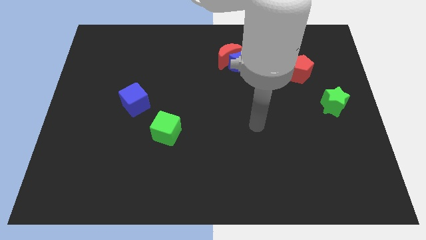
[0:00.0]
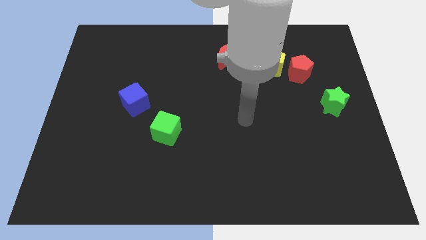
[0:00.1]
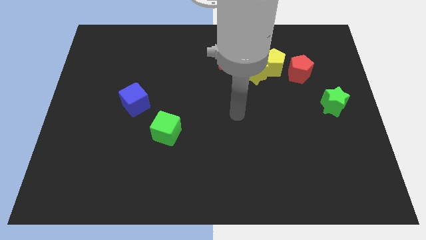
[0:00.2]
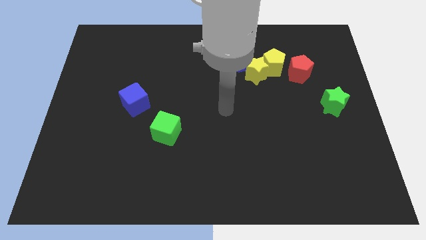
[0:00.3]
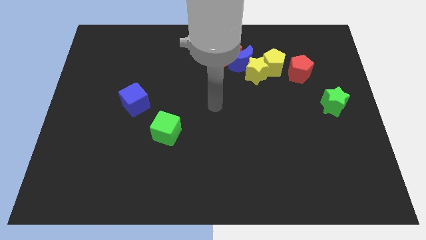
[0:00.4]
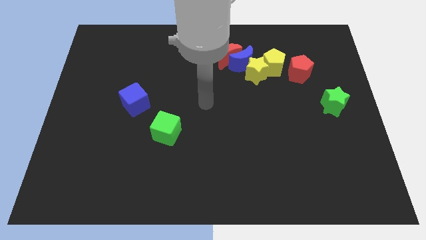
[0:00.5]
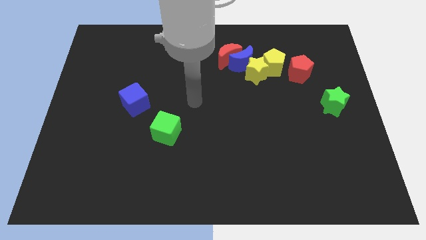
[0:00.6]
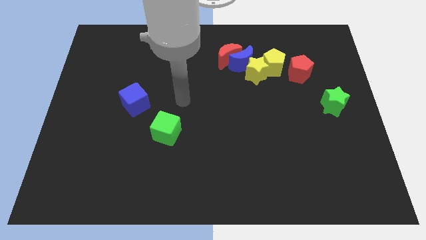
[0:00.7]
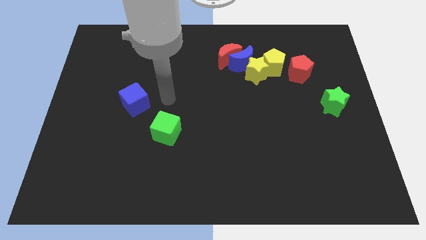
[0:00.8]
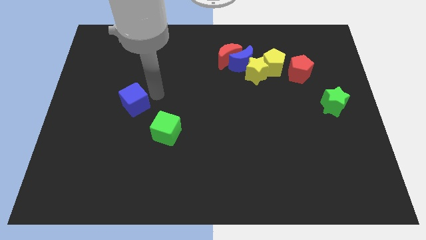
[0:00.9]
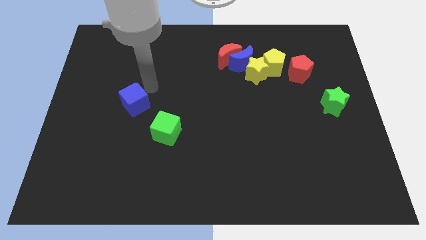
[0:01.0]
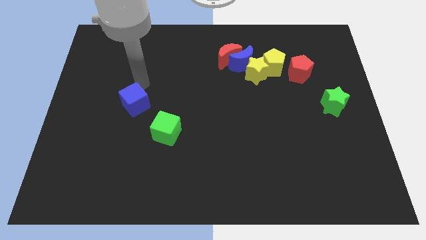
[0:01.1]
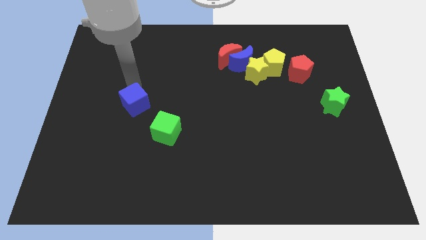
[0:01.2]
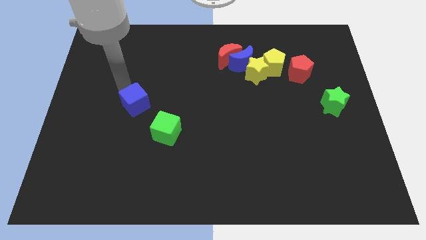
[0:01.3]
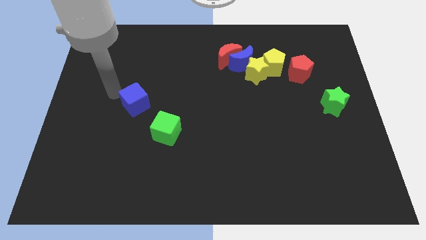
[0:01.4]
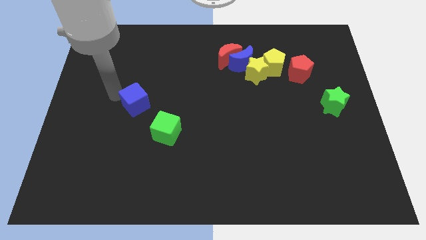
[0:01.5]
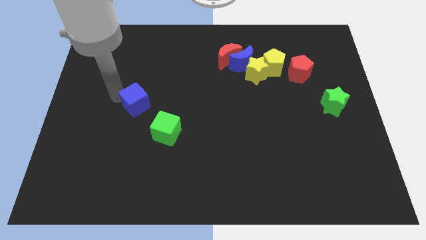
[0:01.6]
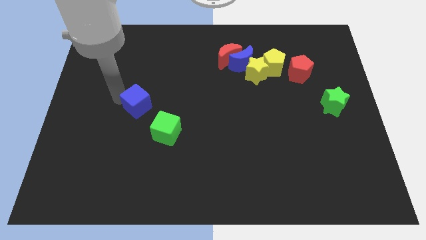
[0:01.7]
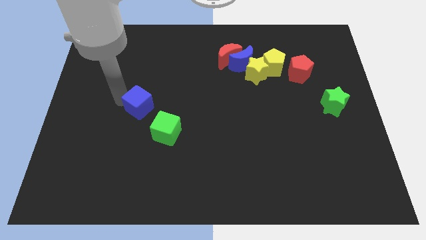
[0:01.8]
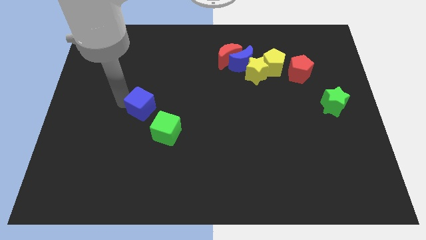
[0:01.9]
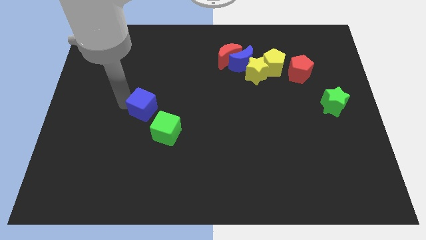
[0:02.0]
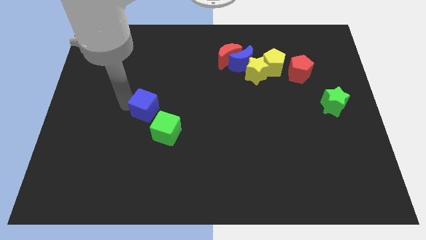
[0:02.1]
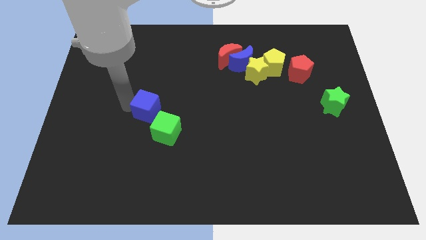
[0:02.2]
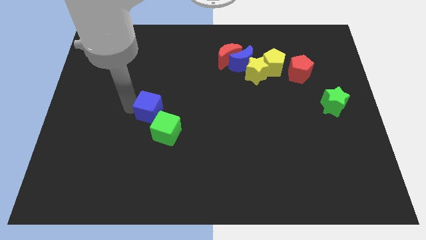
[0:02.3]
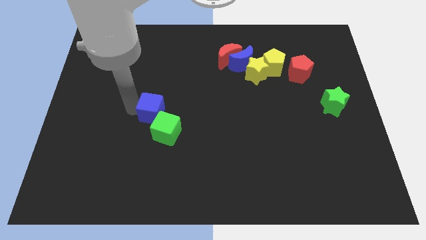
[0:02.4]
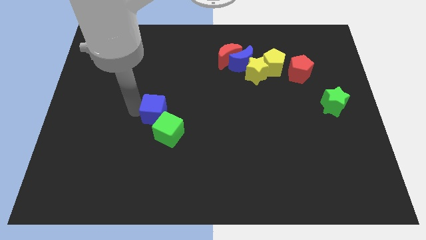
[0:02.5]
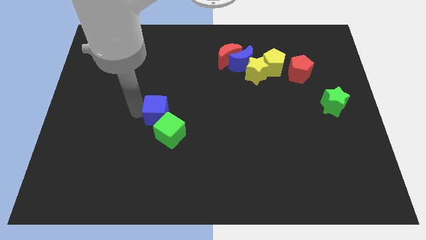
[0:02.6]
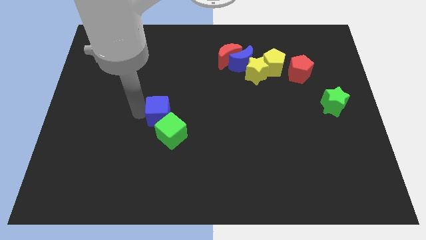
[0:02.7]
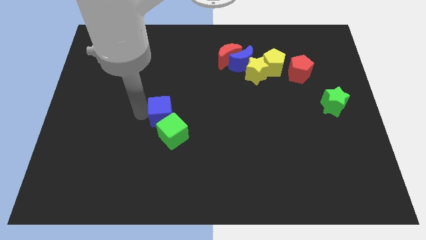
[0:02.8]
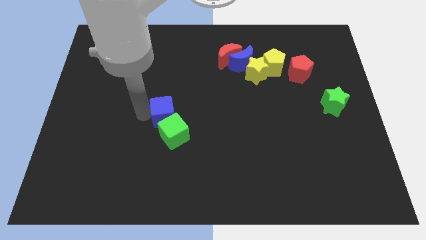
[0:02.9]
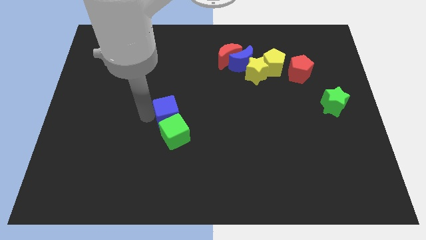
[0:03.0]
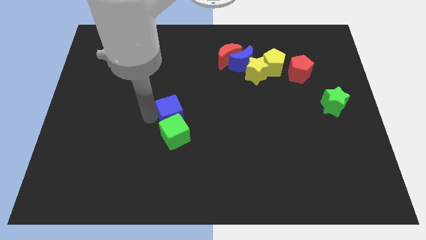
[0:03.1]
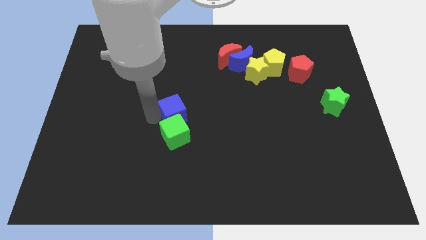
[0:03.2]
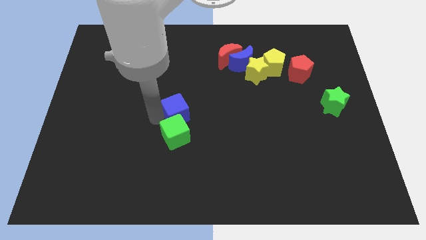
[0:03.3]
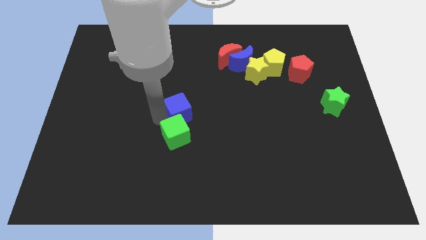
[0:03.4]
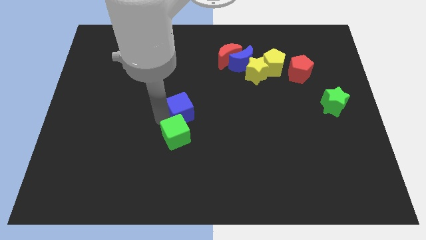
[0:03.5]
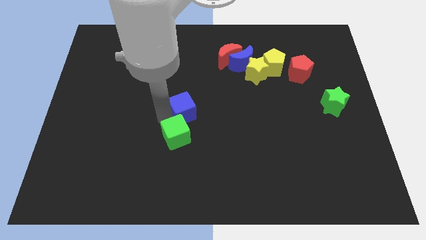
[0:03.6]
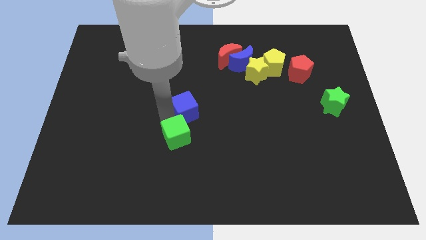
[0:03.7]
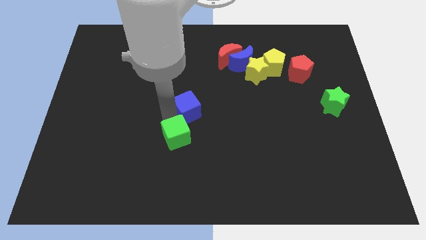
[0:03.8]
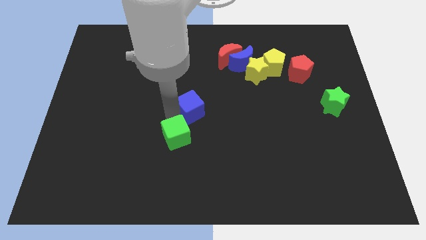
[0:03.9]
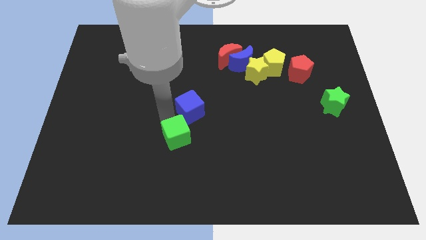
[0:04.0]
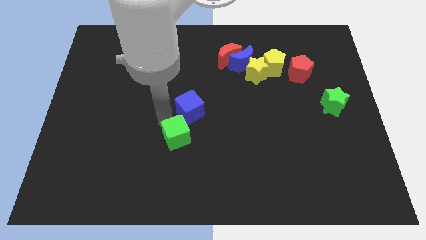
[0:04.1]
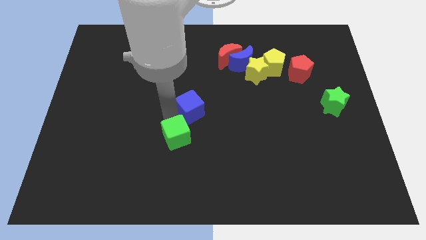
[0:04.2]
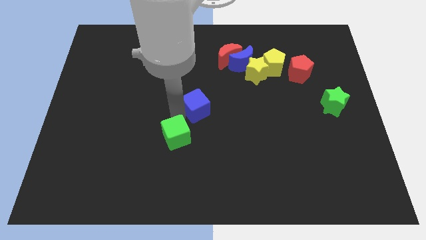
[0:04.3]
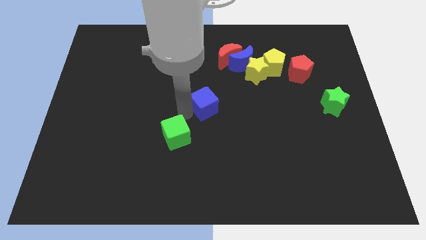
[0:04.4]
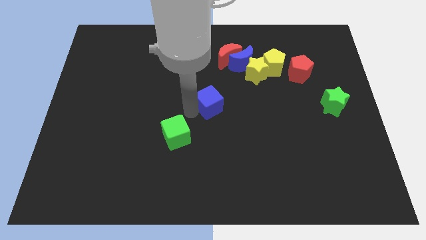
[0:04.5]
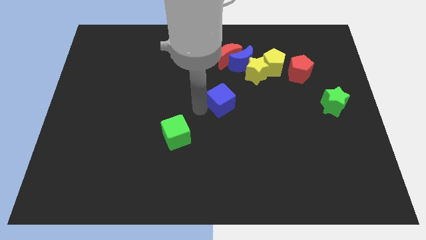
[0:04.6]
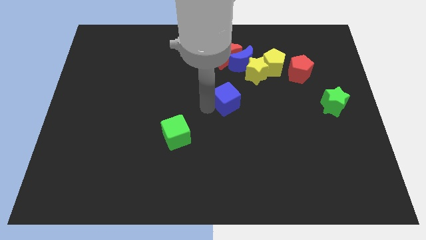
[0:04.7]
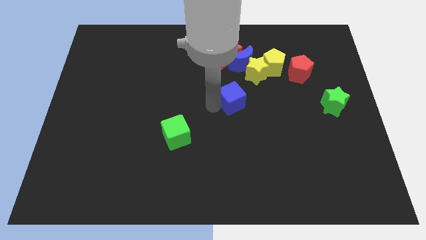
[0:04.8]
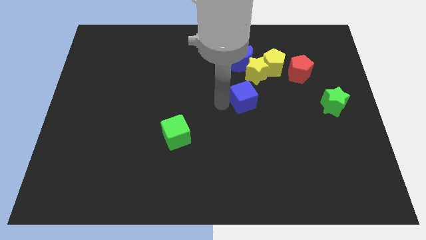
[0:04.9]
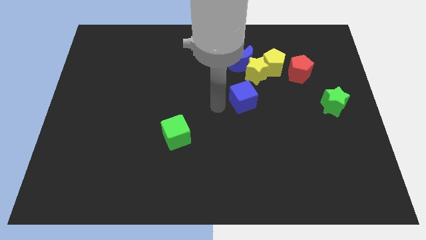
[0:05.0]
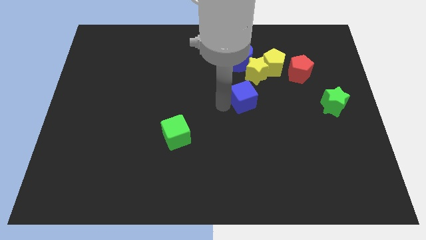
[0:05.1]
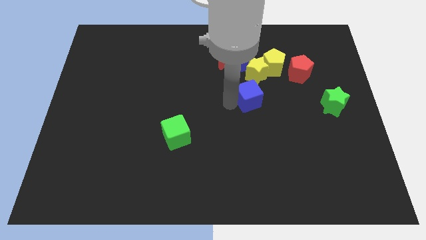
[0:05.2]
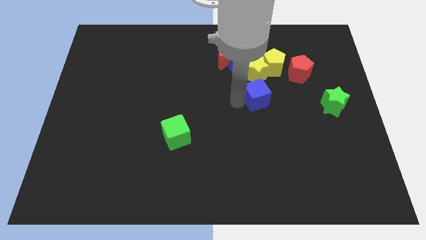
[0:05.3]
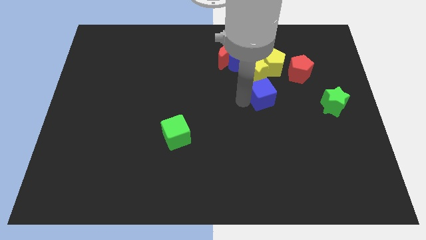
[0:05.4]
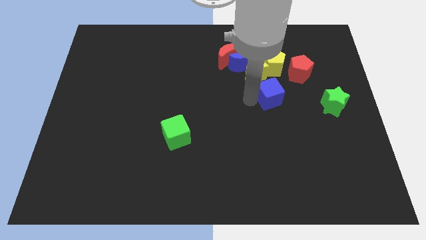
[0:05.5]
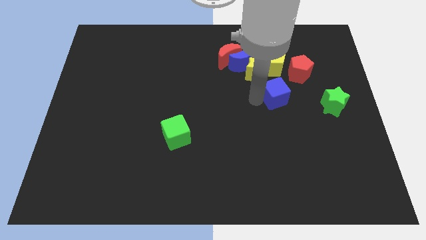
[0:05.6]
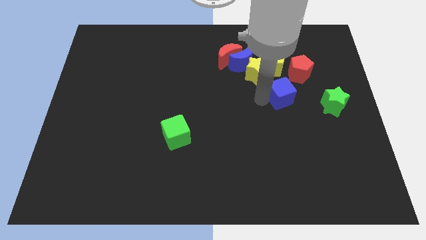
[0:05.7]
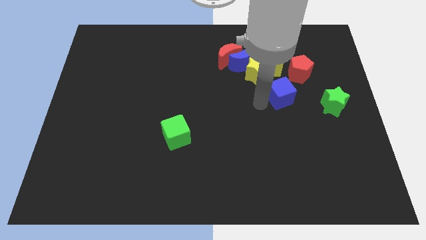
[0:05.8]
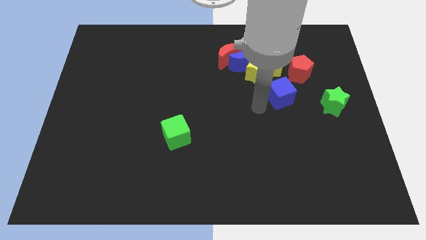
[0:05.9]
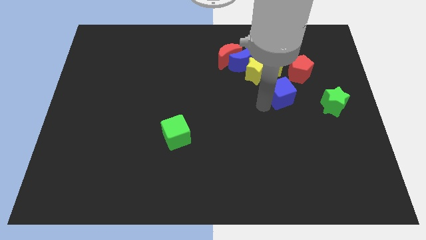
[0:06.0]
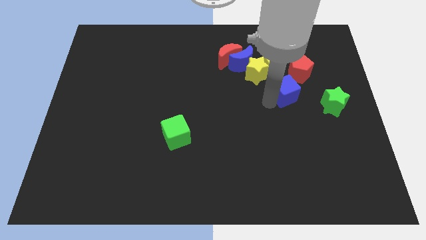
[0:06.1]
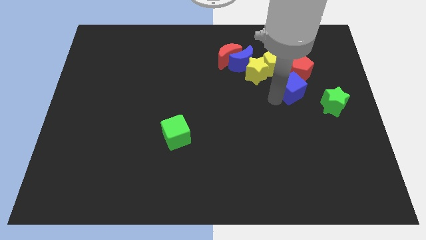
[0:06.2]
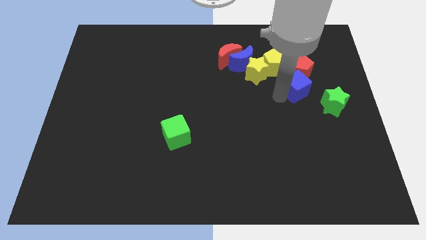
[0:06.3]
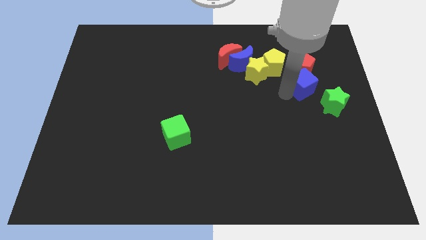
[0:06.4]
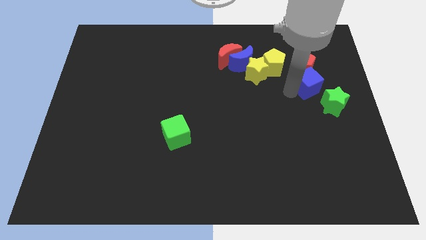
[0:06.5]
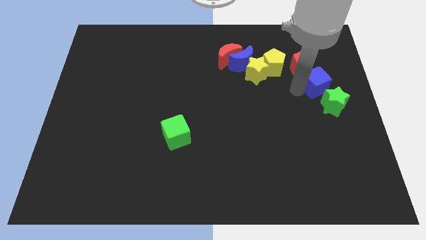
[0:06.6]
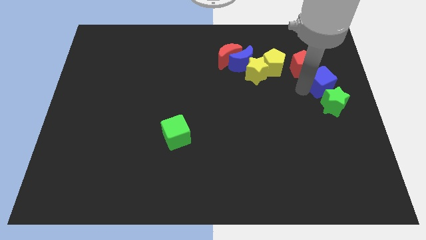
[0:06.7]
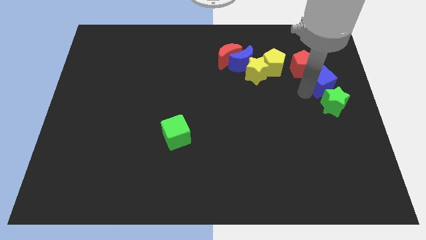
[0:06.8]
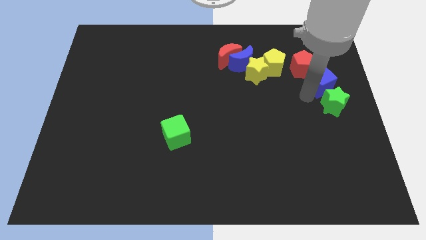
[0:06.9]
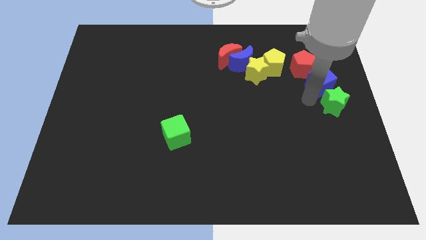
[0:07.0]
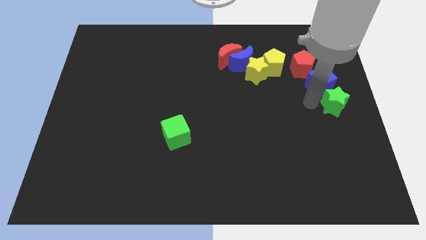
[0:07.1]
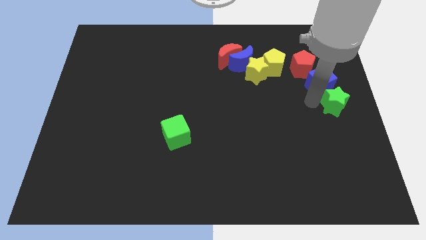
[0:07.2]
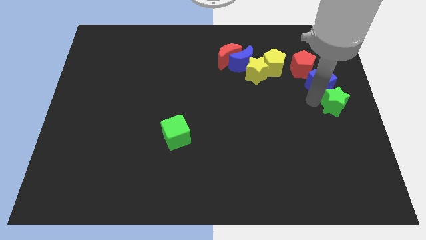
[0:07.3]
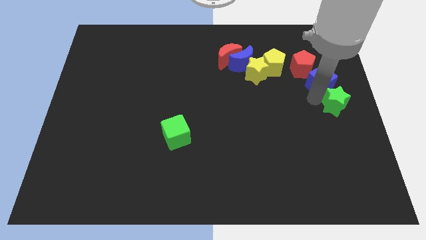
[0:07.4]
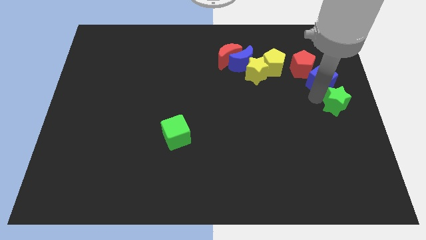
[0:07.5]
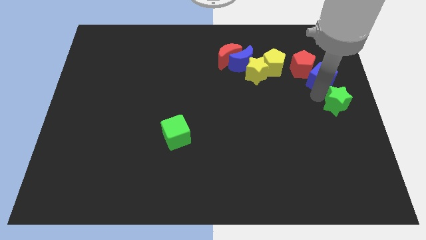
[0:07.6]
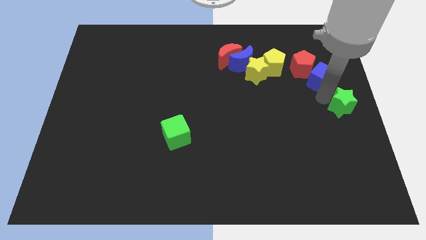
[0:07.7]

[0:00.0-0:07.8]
move the blue cube to the right of the yellow pentagon
